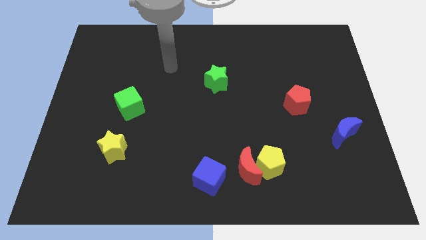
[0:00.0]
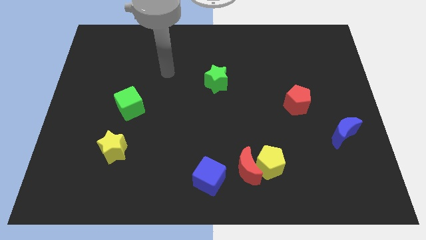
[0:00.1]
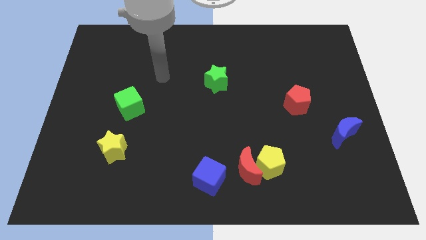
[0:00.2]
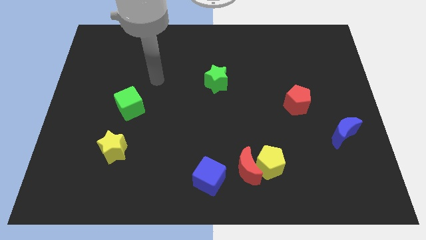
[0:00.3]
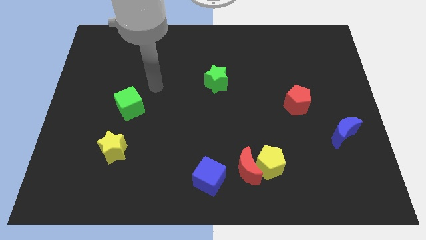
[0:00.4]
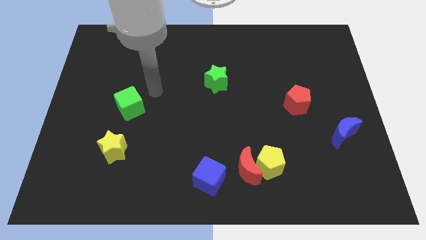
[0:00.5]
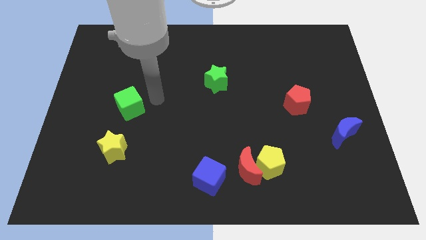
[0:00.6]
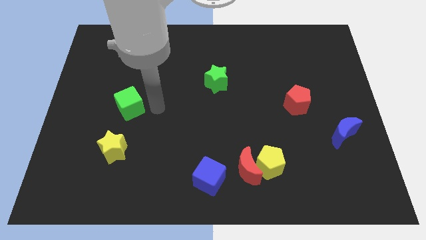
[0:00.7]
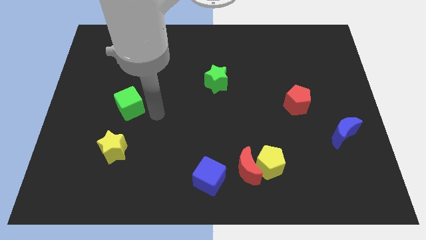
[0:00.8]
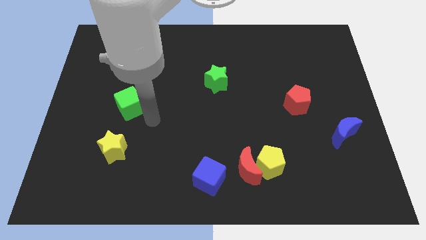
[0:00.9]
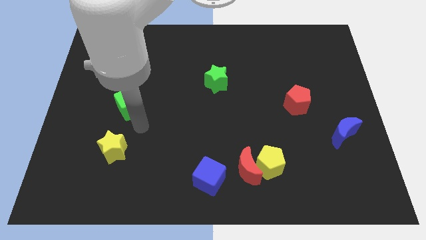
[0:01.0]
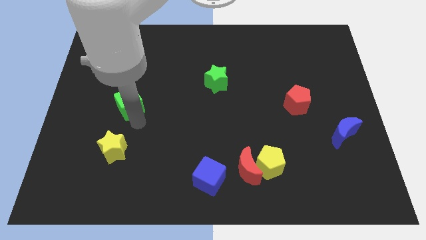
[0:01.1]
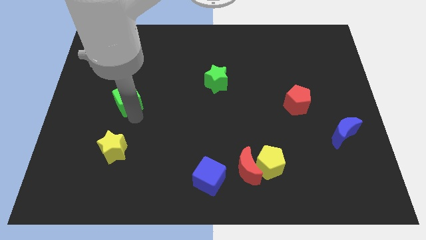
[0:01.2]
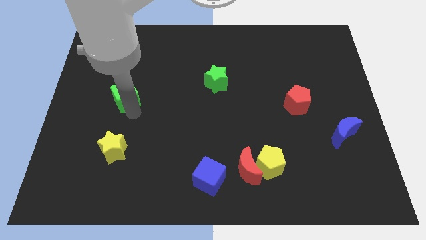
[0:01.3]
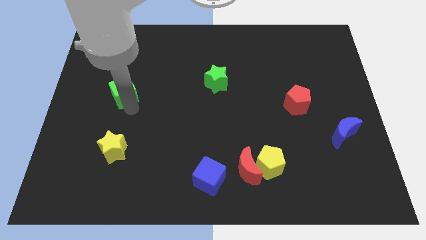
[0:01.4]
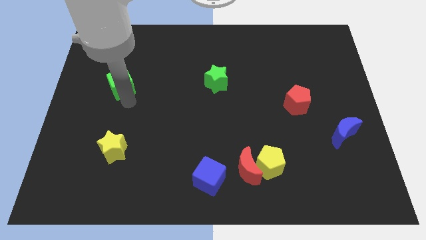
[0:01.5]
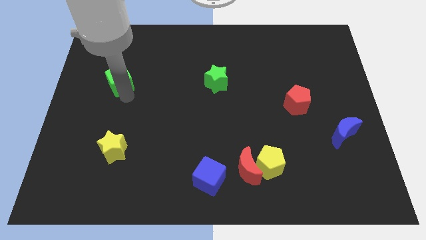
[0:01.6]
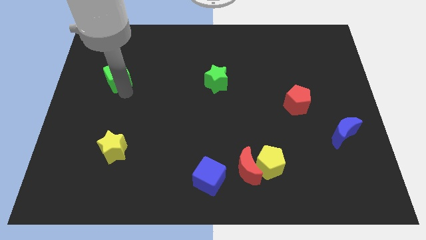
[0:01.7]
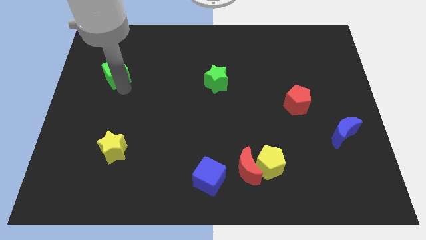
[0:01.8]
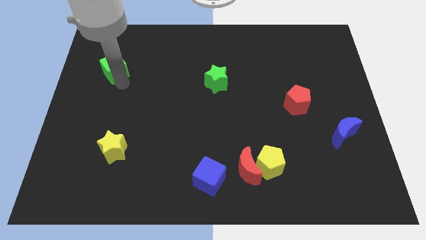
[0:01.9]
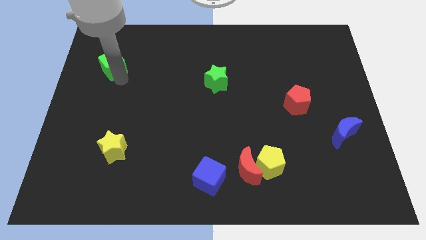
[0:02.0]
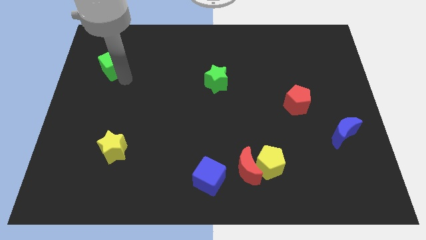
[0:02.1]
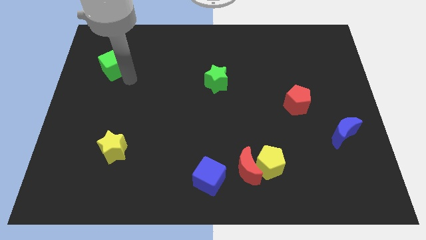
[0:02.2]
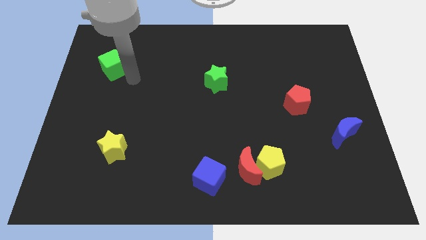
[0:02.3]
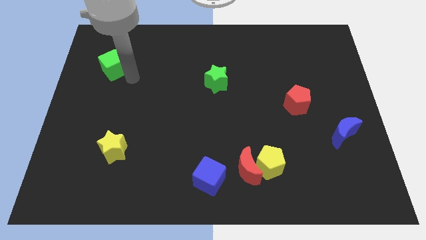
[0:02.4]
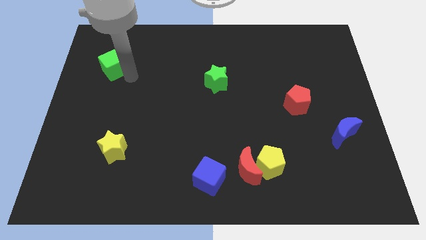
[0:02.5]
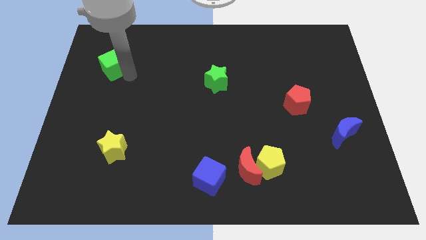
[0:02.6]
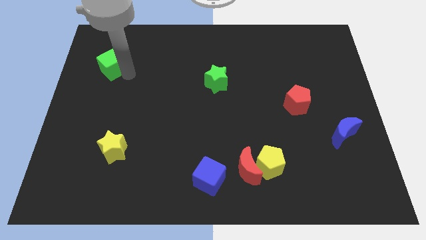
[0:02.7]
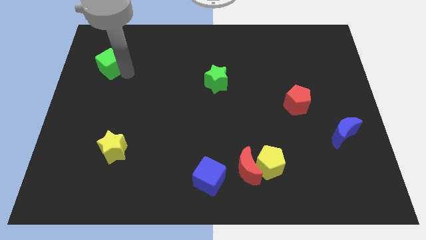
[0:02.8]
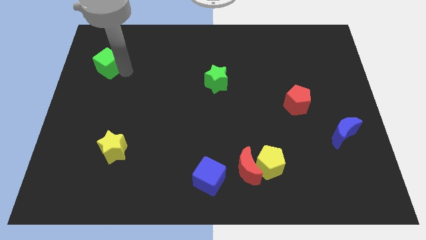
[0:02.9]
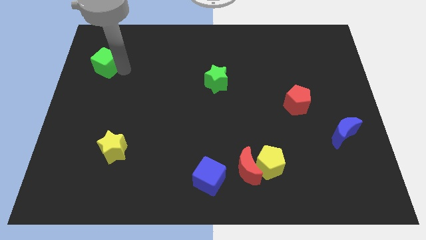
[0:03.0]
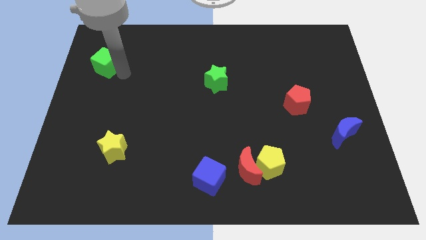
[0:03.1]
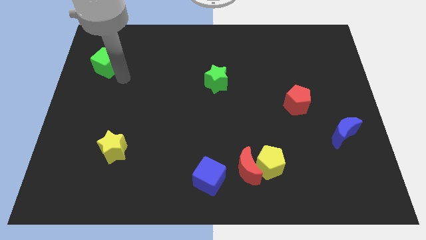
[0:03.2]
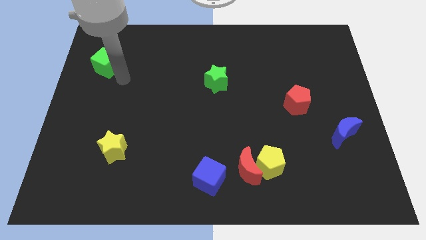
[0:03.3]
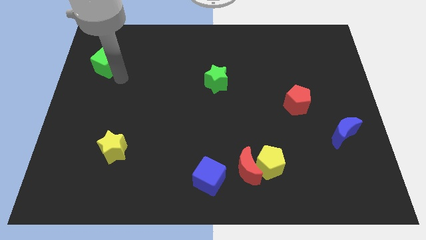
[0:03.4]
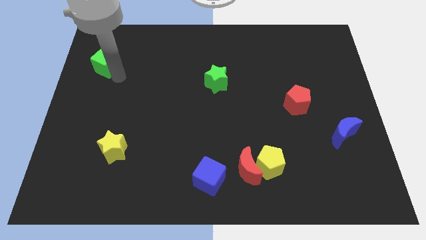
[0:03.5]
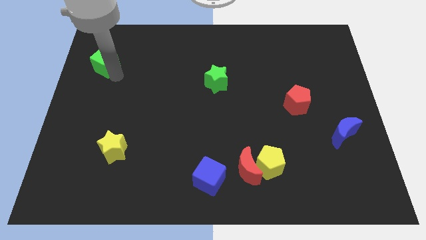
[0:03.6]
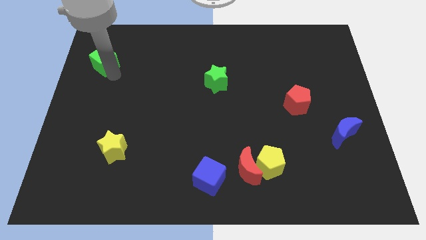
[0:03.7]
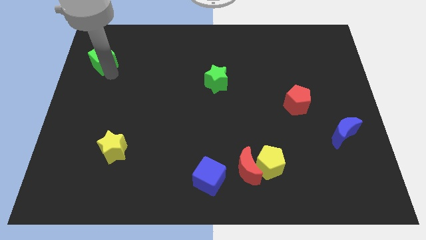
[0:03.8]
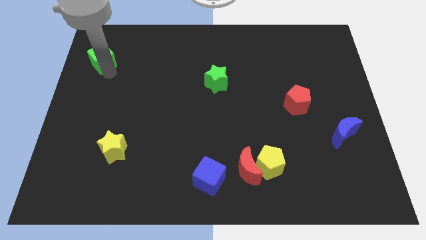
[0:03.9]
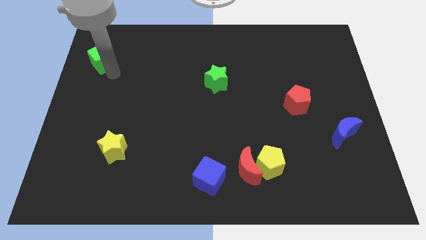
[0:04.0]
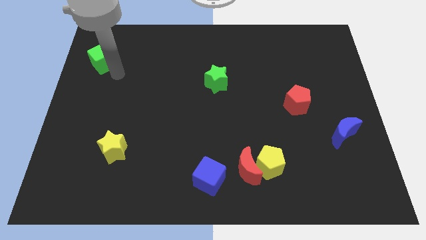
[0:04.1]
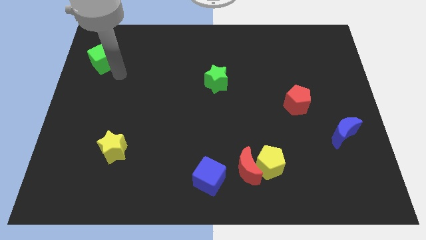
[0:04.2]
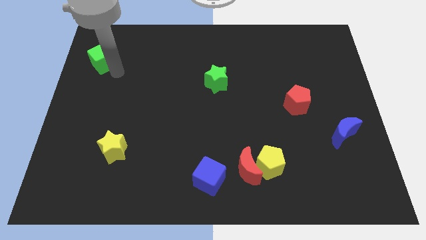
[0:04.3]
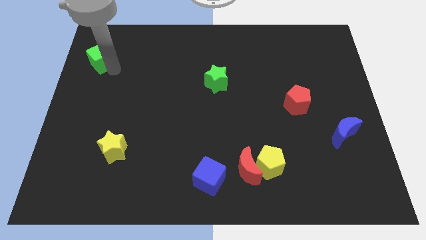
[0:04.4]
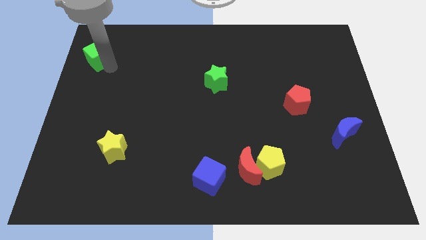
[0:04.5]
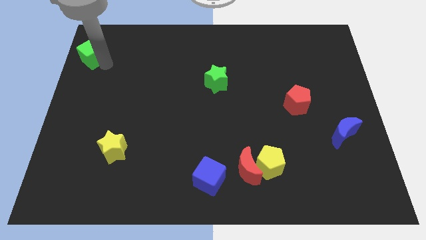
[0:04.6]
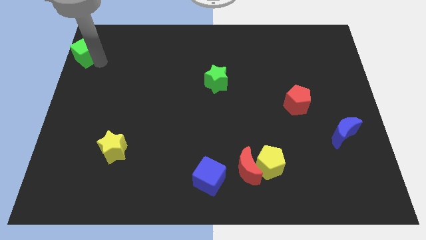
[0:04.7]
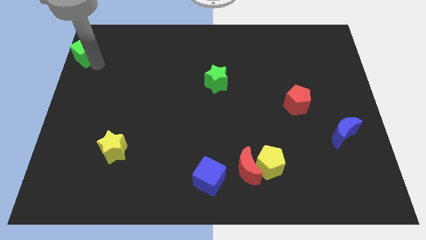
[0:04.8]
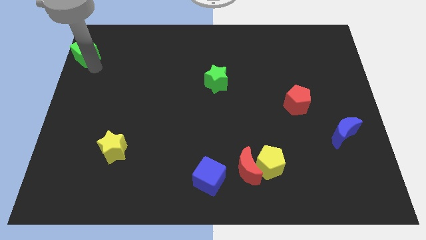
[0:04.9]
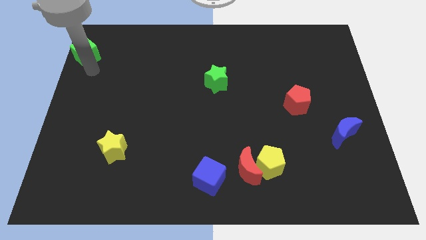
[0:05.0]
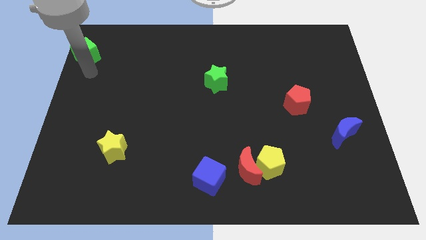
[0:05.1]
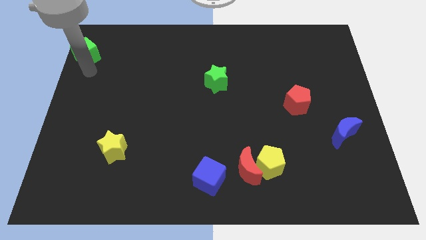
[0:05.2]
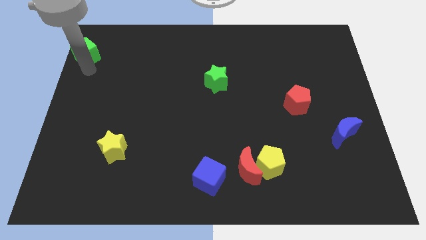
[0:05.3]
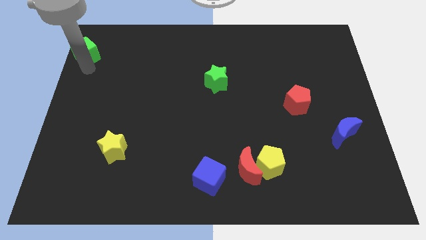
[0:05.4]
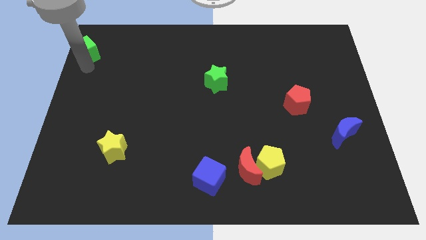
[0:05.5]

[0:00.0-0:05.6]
push the green cube to the top left corner

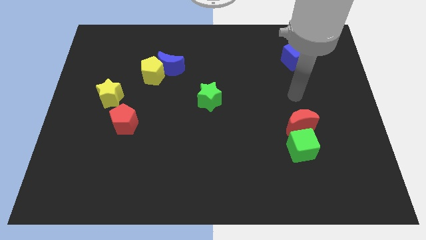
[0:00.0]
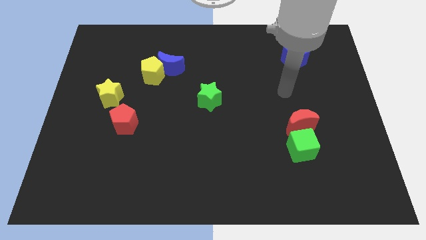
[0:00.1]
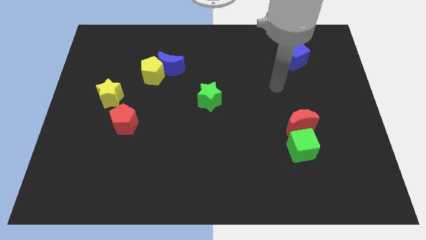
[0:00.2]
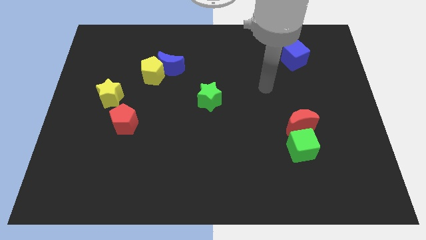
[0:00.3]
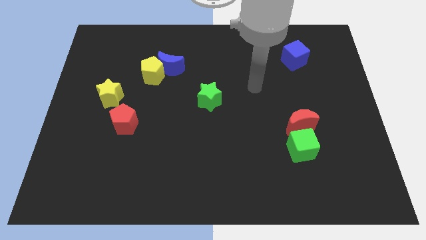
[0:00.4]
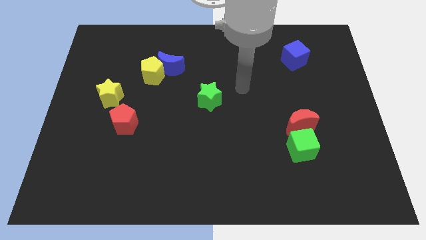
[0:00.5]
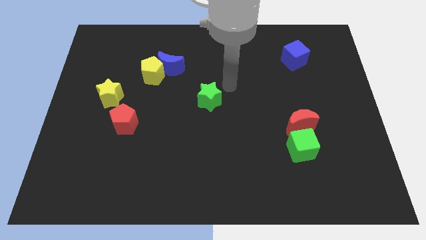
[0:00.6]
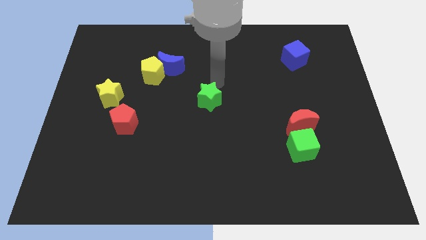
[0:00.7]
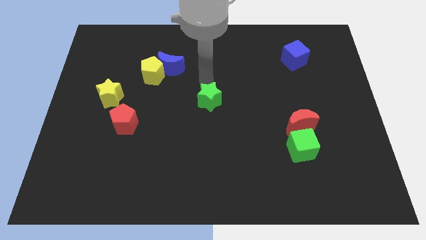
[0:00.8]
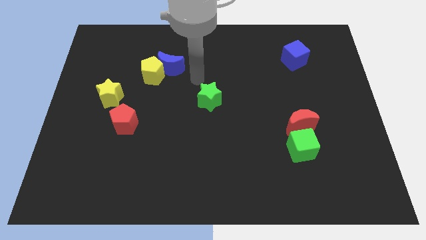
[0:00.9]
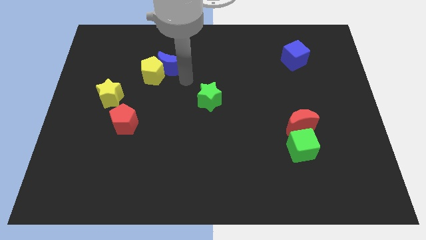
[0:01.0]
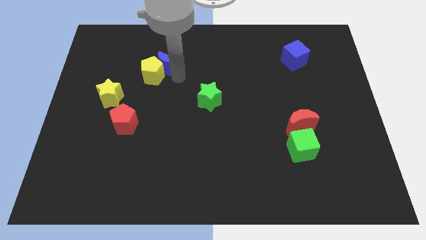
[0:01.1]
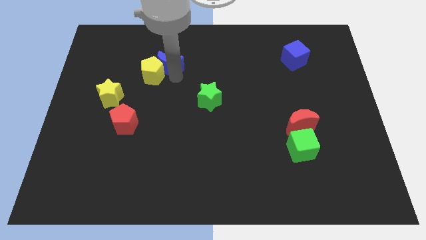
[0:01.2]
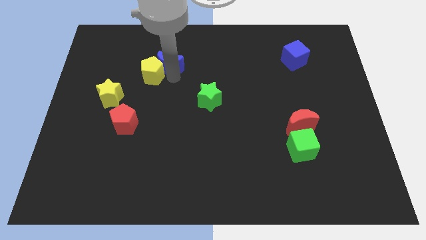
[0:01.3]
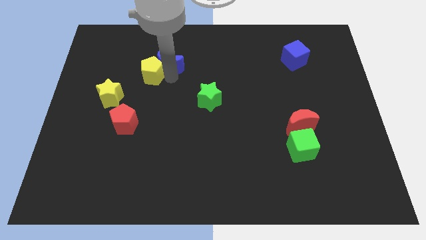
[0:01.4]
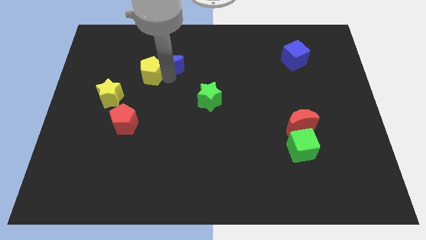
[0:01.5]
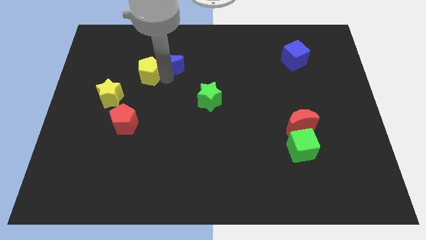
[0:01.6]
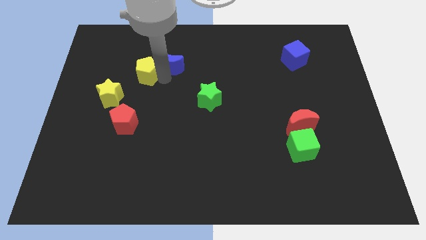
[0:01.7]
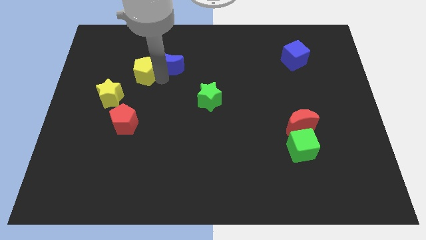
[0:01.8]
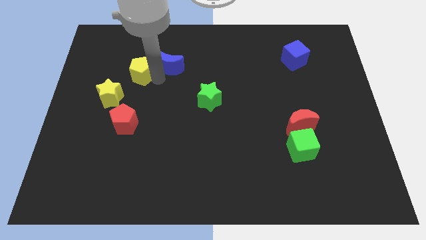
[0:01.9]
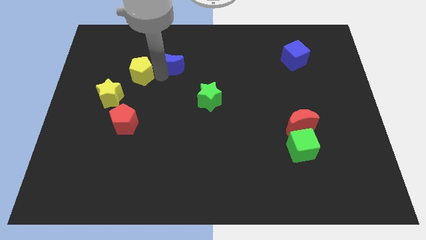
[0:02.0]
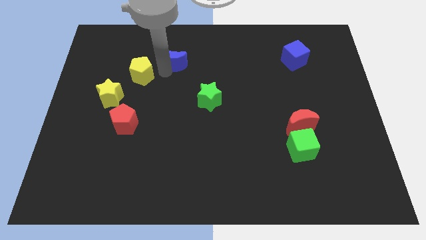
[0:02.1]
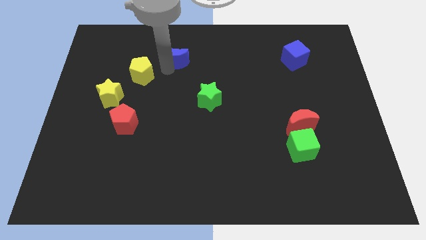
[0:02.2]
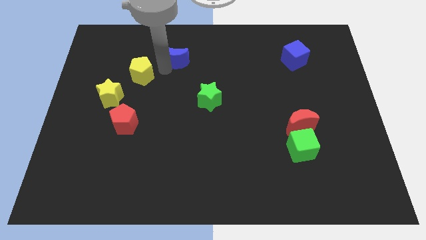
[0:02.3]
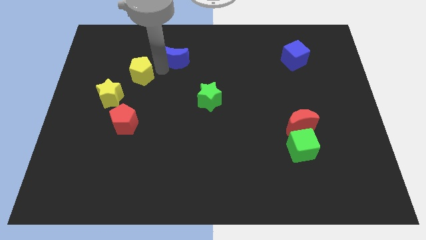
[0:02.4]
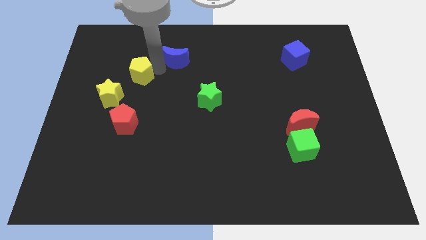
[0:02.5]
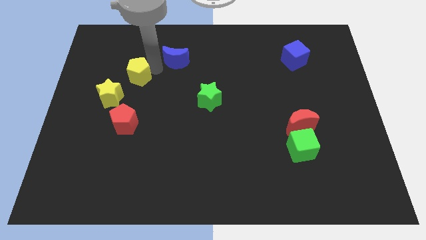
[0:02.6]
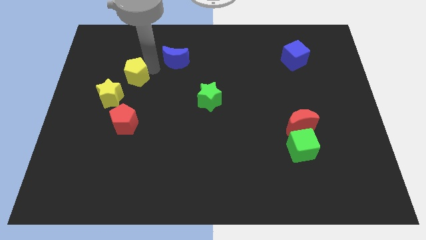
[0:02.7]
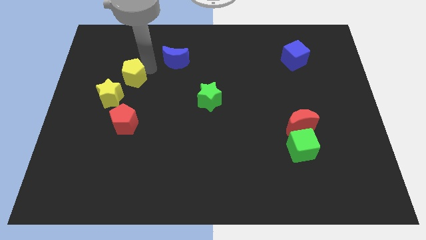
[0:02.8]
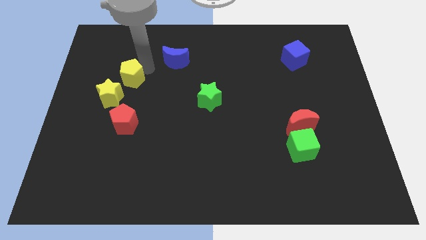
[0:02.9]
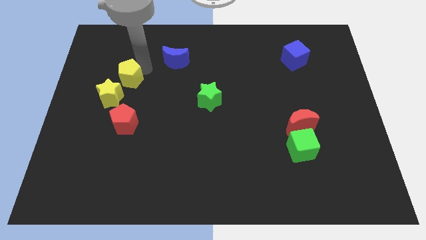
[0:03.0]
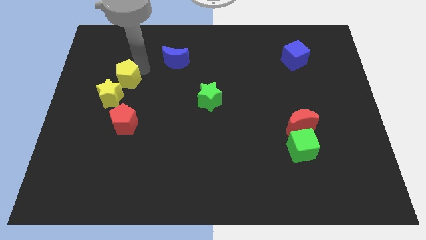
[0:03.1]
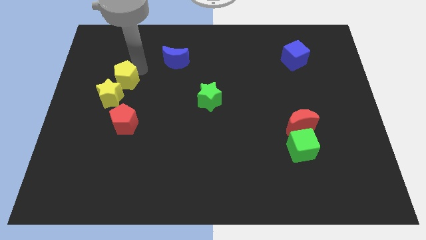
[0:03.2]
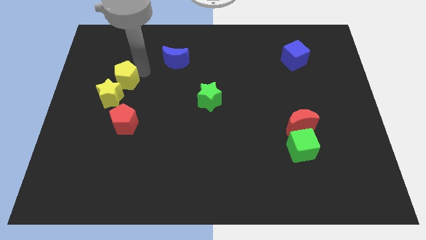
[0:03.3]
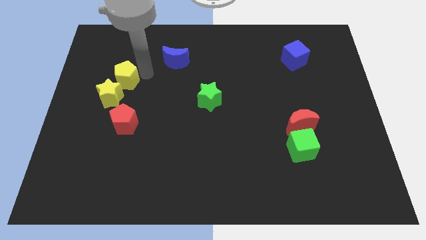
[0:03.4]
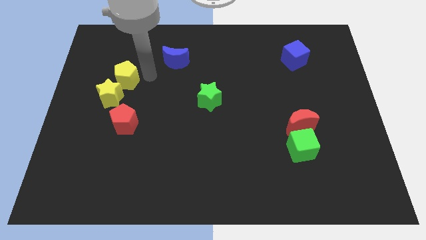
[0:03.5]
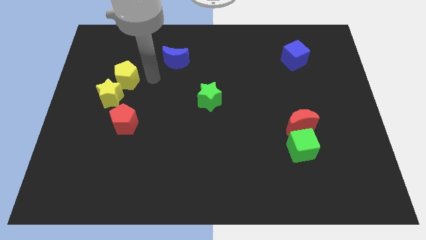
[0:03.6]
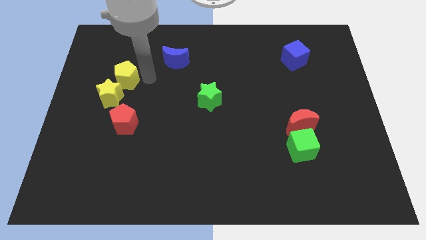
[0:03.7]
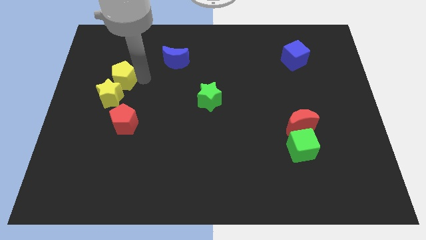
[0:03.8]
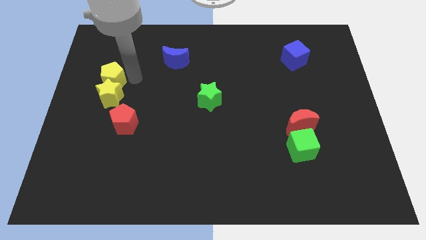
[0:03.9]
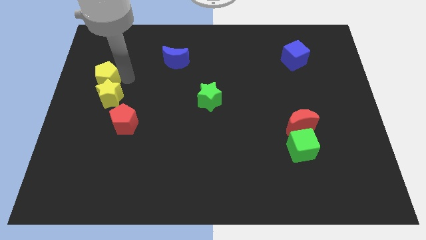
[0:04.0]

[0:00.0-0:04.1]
move the yellow pentagon to the left side of the board
